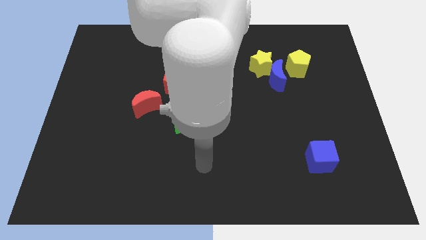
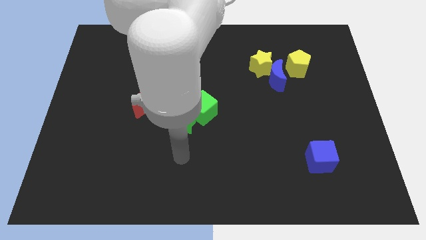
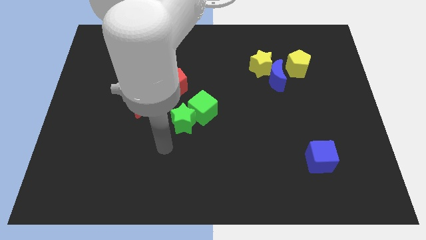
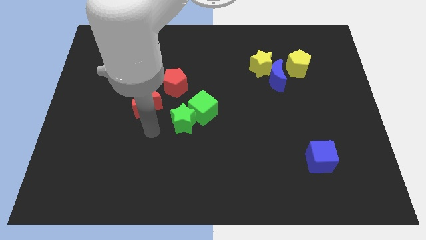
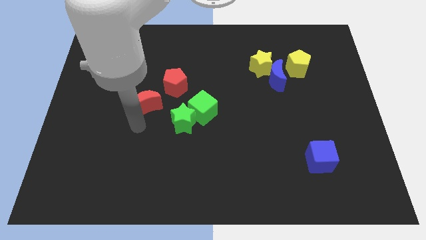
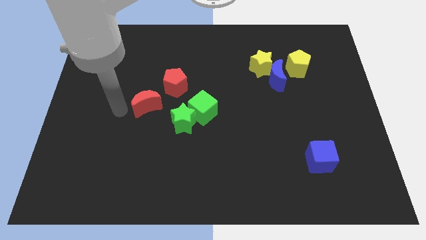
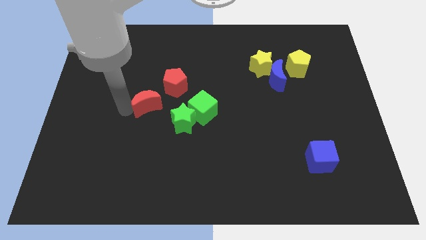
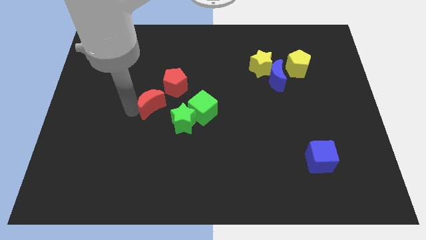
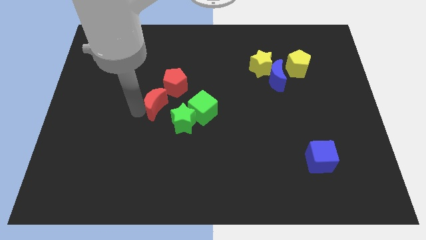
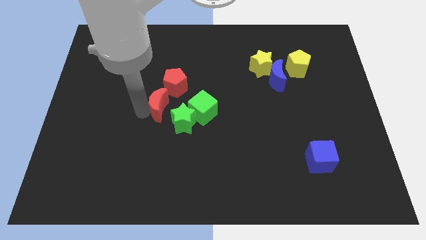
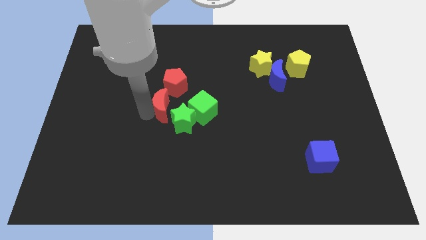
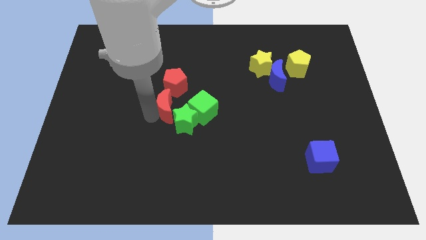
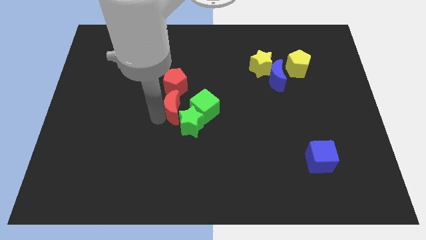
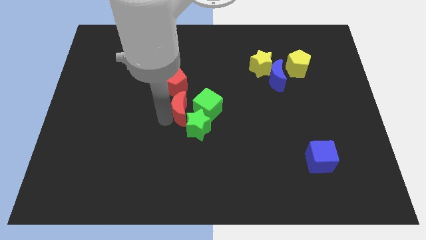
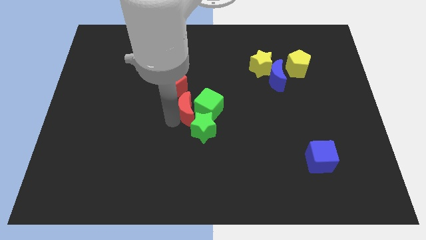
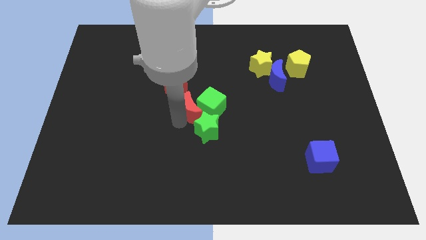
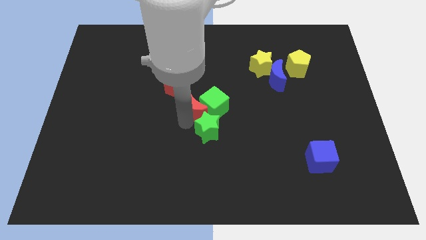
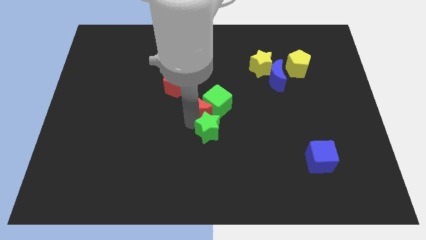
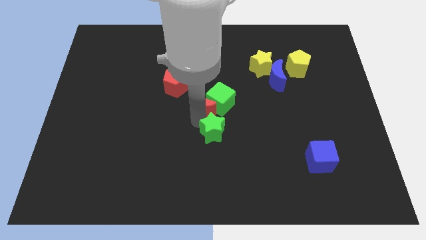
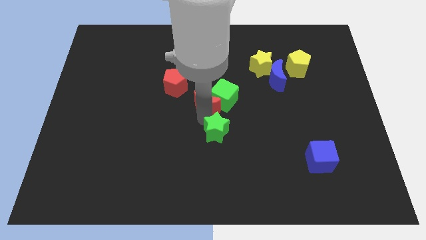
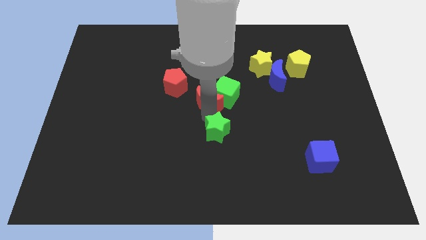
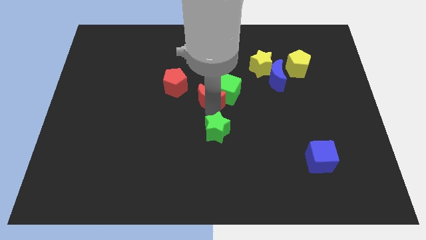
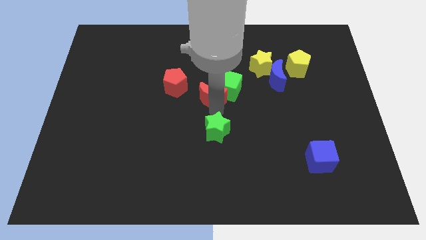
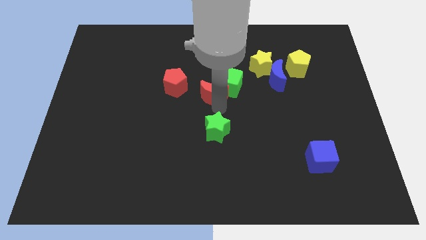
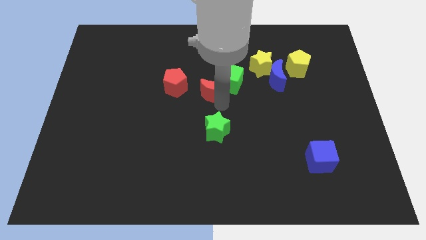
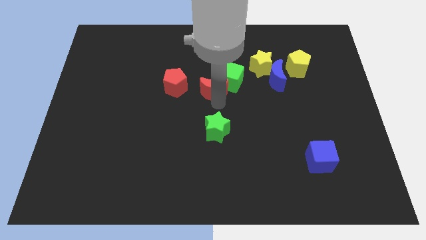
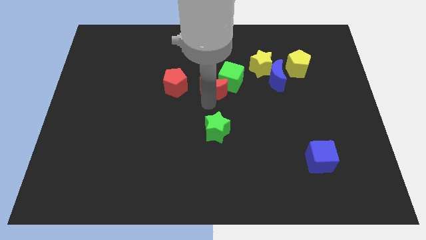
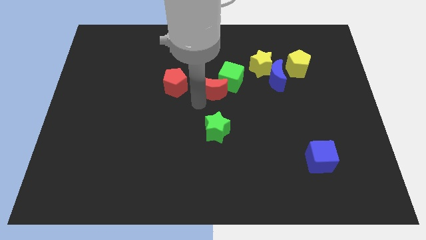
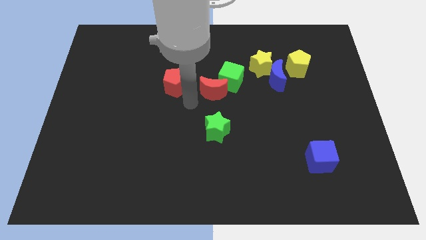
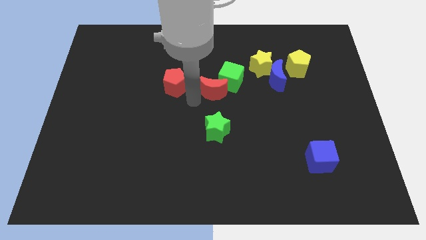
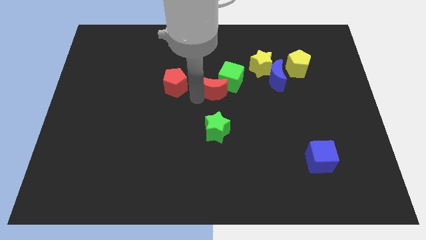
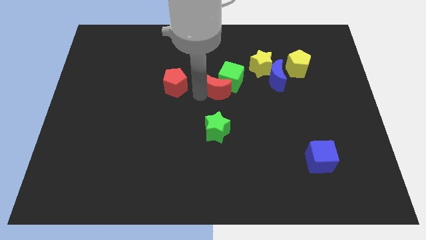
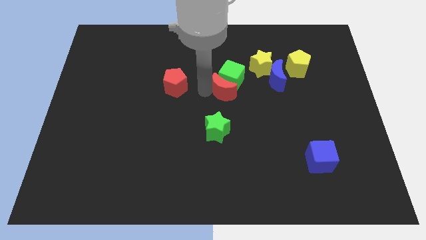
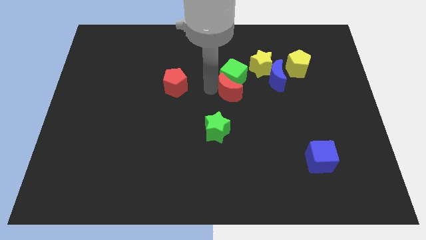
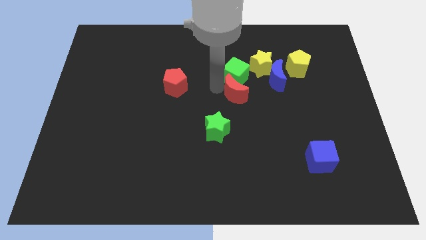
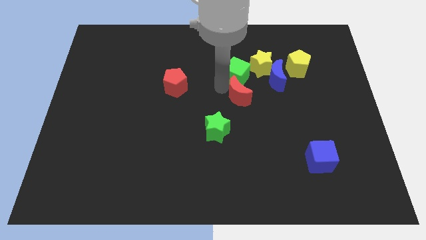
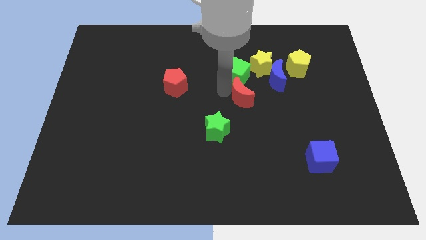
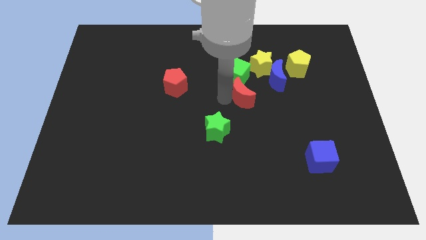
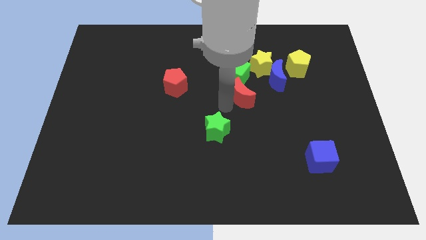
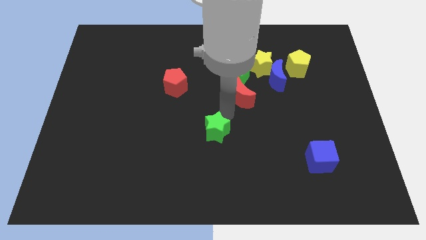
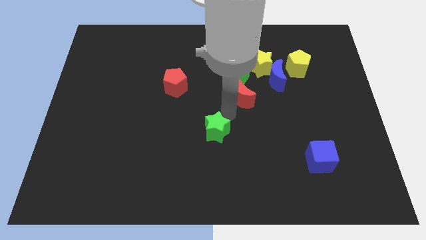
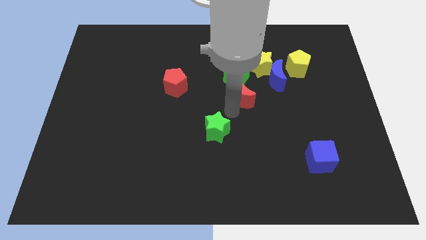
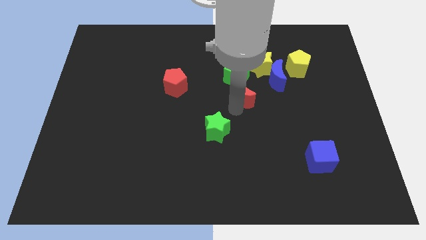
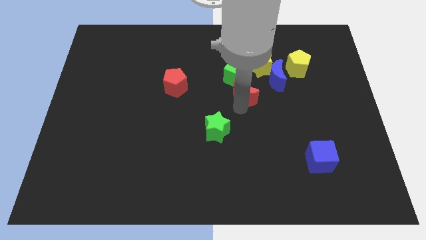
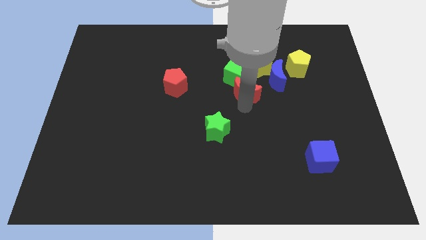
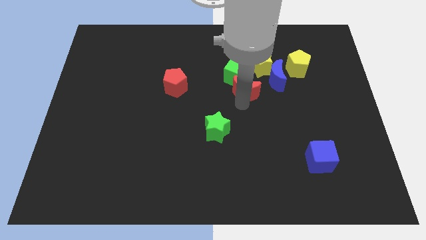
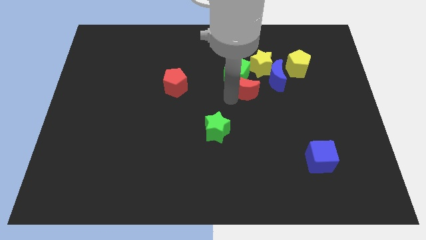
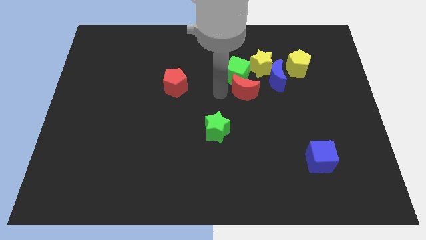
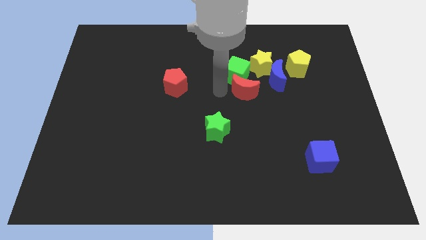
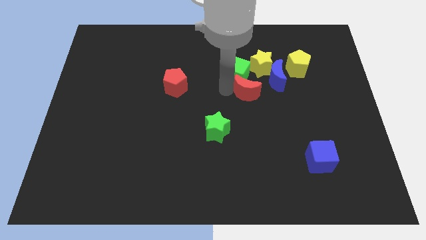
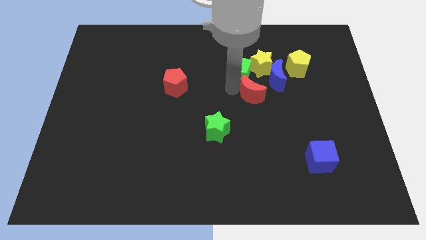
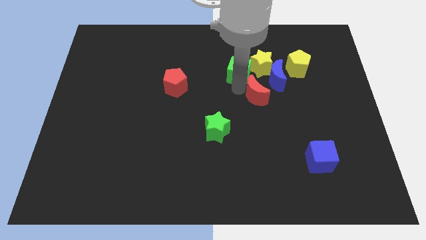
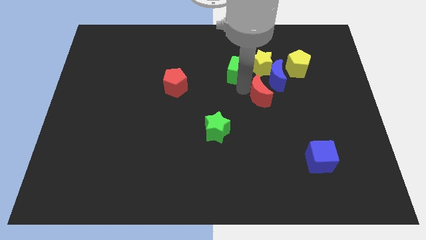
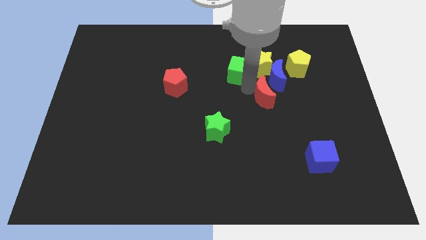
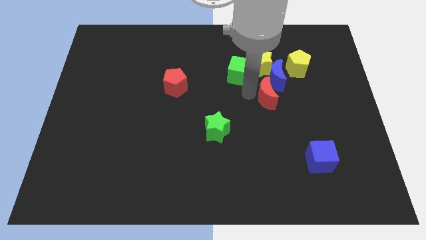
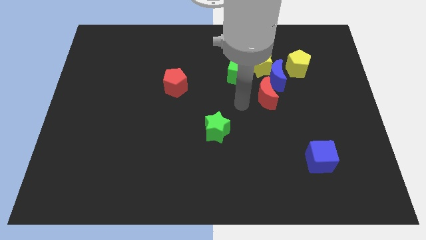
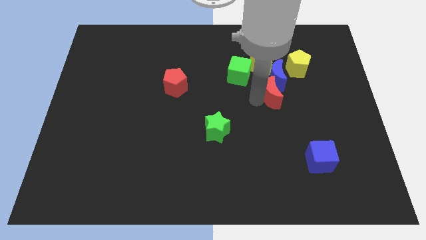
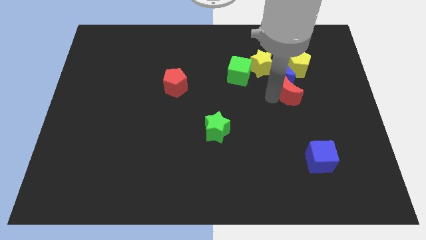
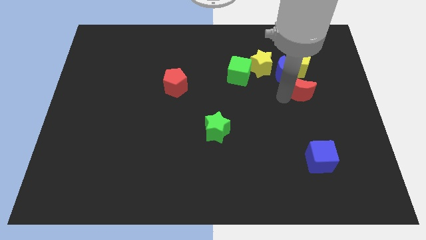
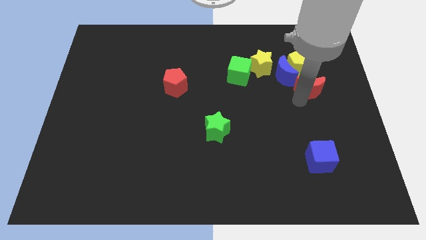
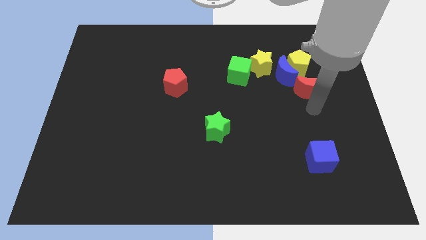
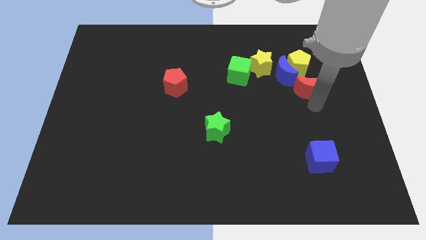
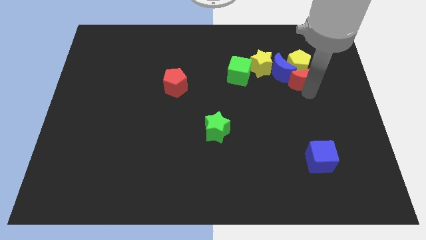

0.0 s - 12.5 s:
slide the red moon to the yellow pentagon

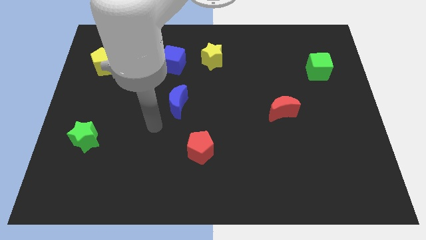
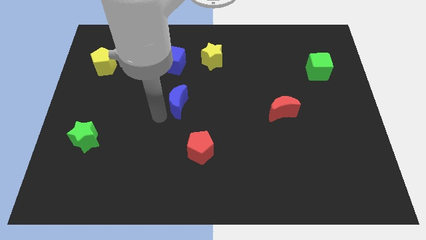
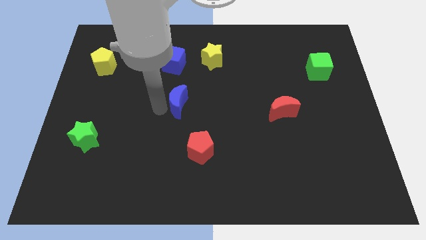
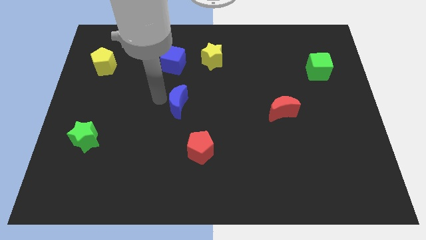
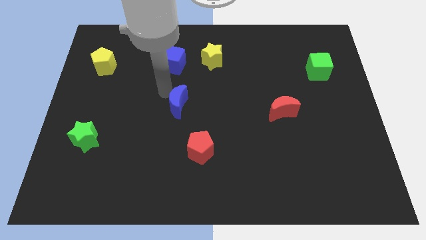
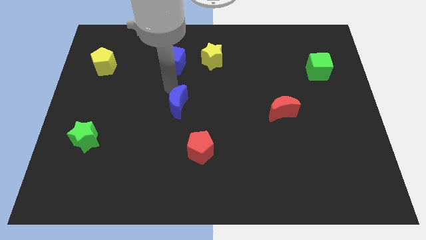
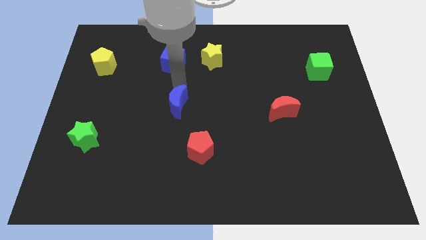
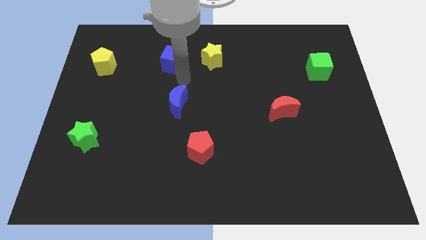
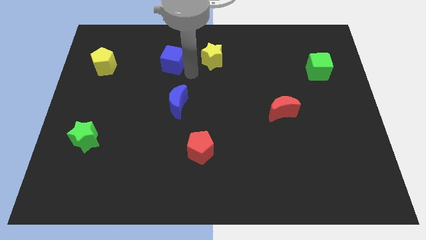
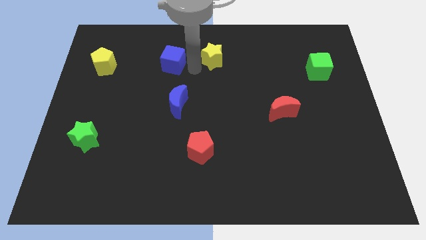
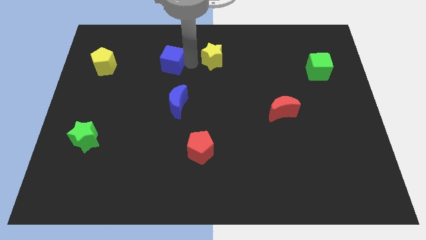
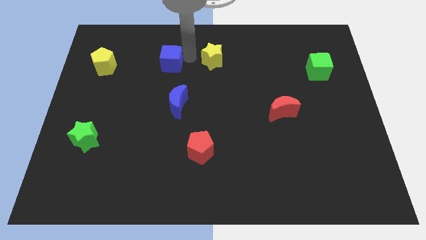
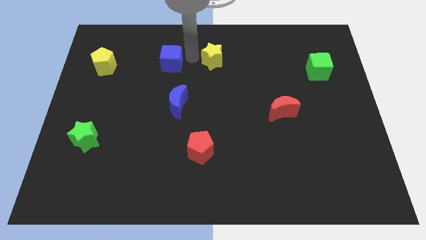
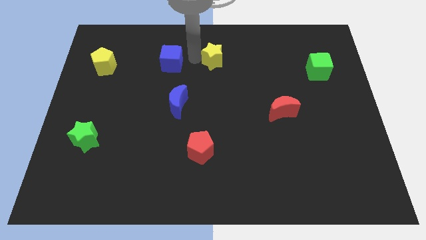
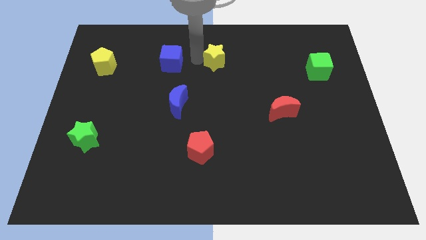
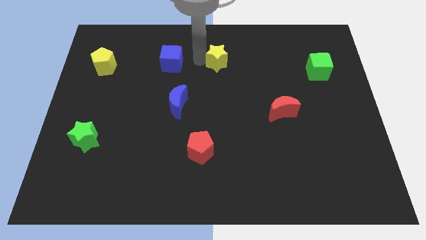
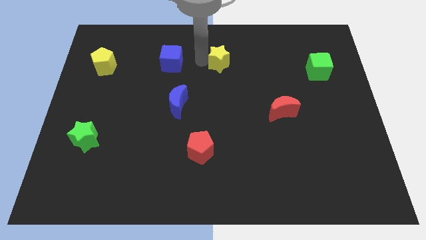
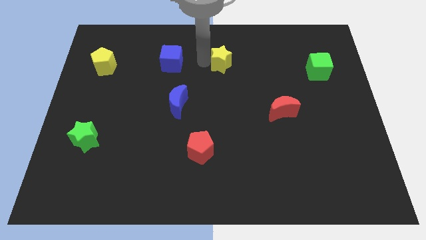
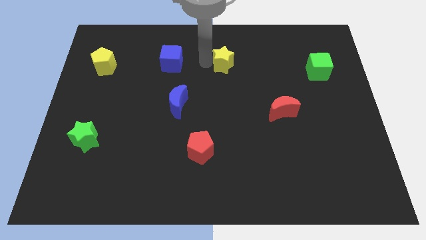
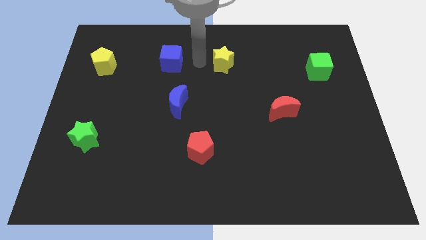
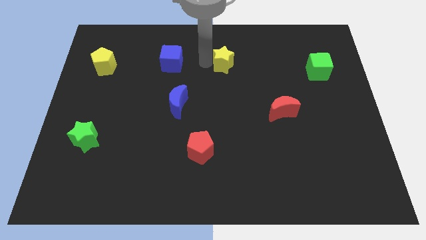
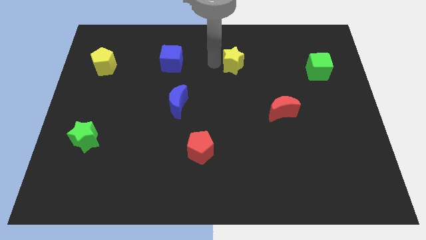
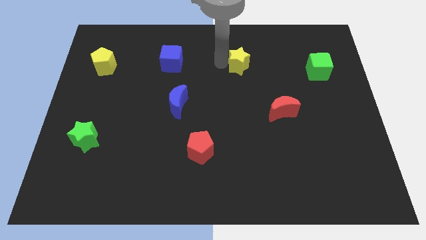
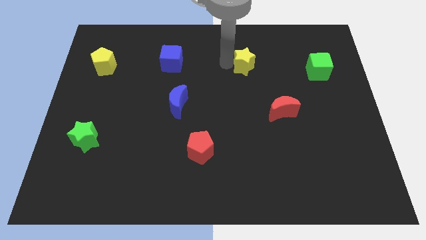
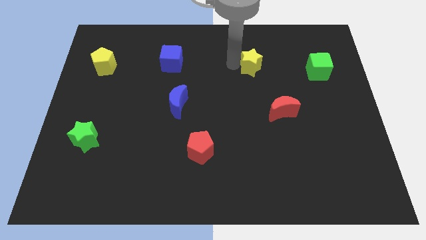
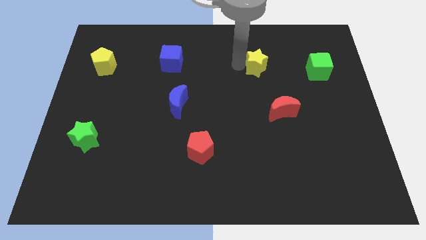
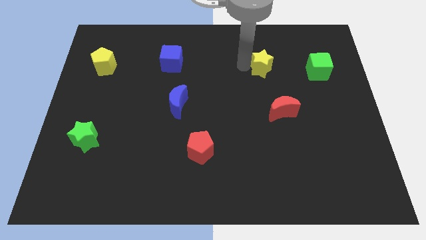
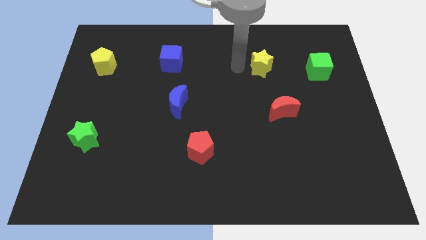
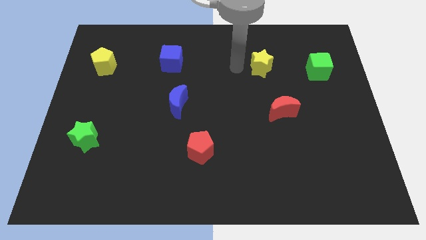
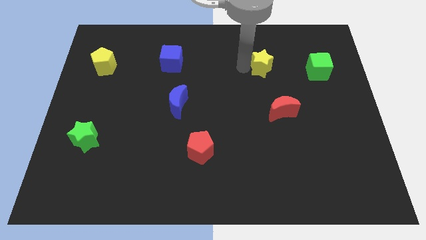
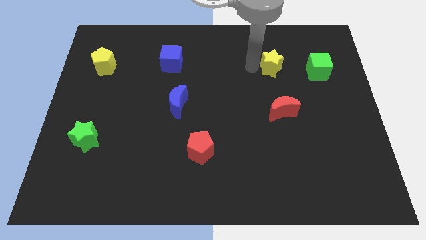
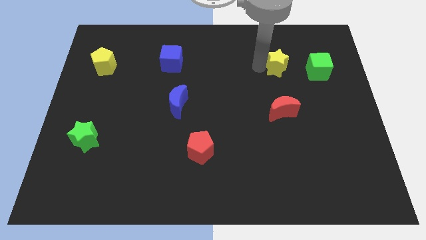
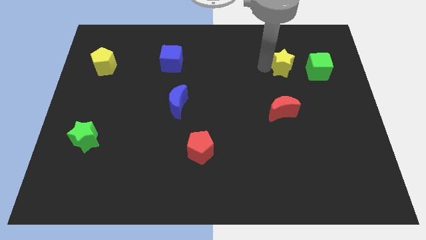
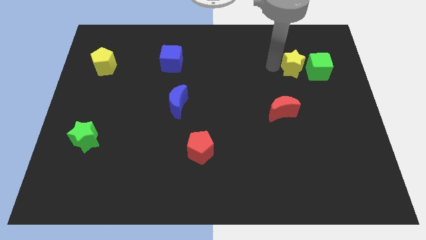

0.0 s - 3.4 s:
slide the yellow star to the green cube
